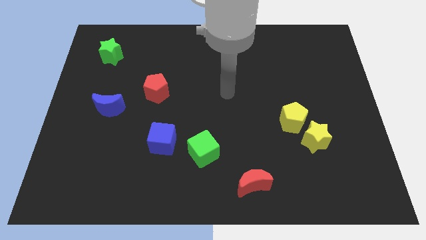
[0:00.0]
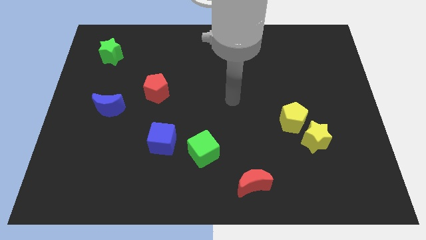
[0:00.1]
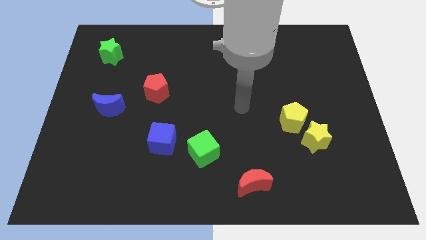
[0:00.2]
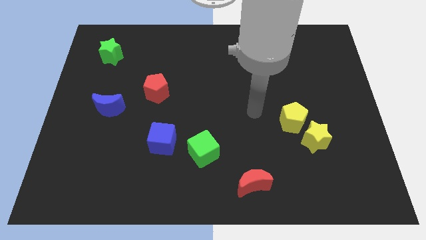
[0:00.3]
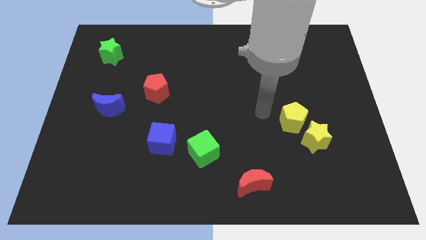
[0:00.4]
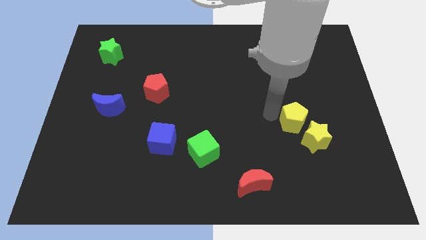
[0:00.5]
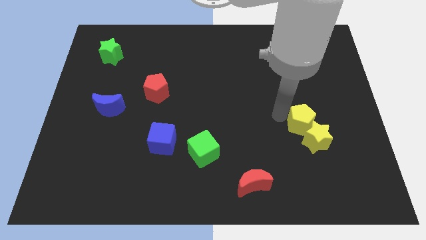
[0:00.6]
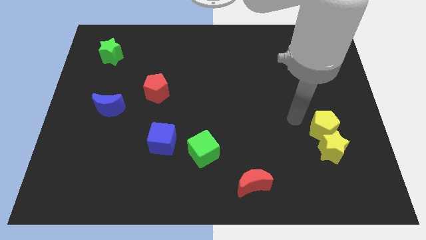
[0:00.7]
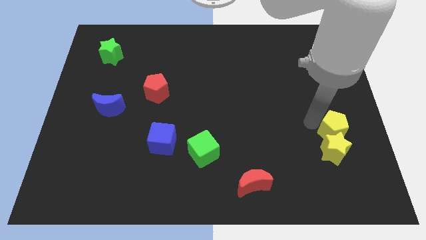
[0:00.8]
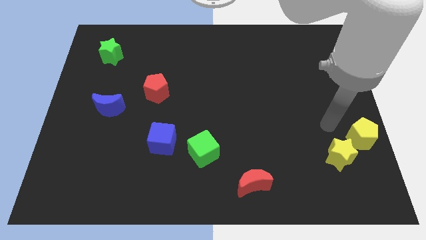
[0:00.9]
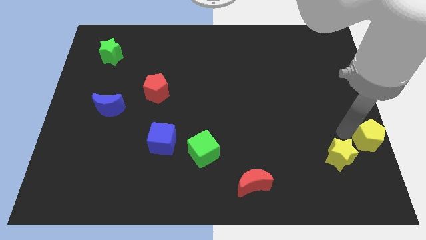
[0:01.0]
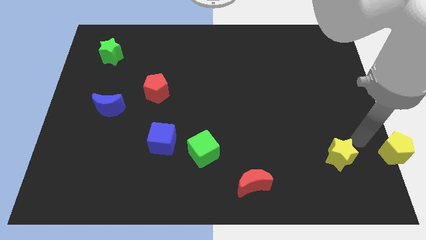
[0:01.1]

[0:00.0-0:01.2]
pull the yellow star apart from the yellow pentagon

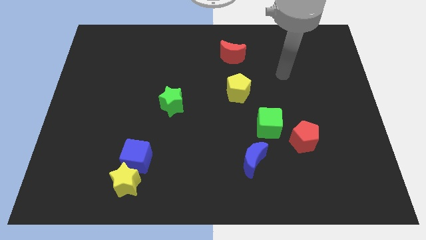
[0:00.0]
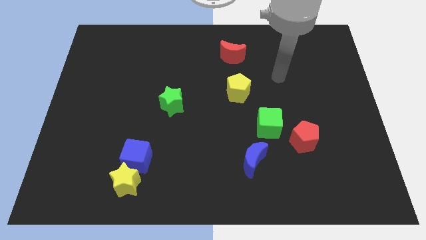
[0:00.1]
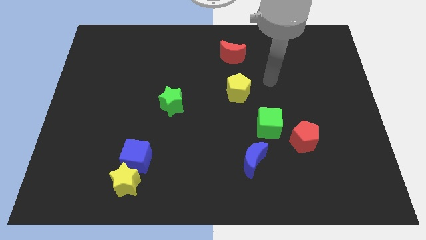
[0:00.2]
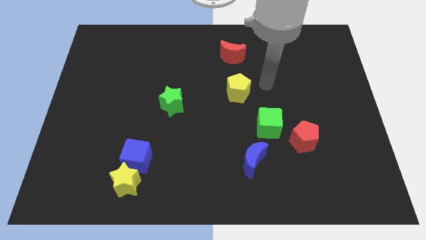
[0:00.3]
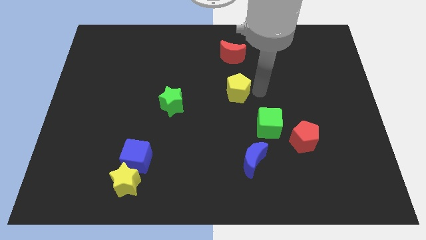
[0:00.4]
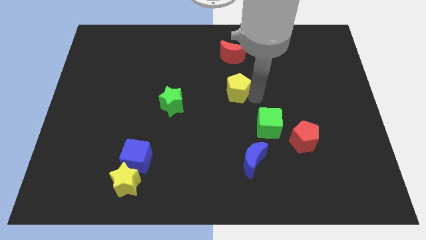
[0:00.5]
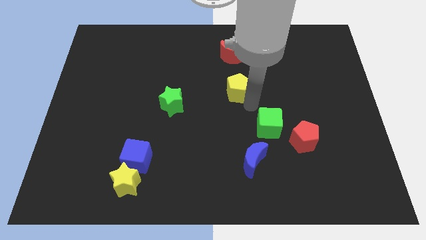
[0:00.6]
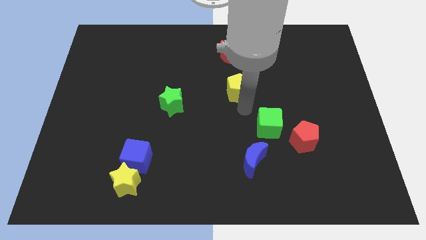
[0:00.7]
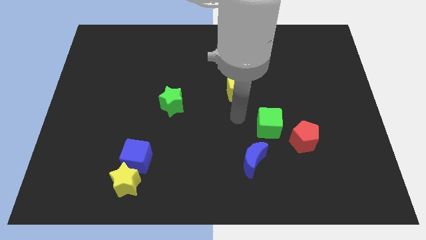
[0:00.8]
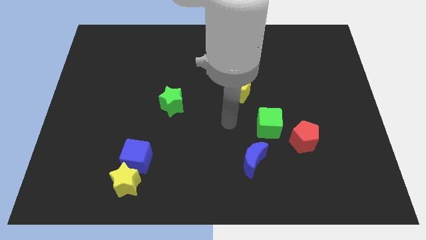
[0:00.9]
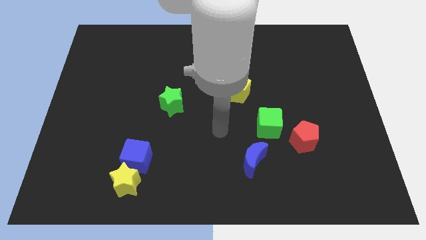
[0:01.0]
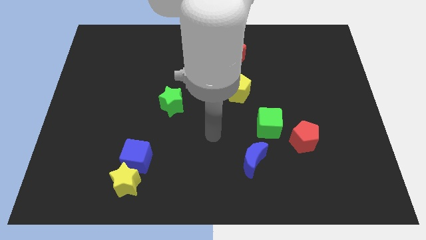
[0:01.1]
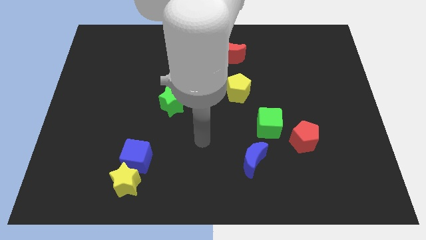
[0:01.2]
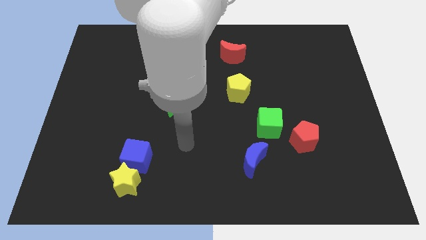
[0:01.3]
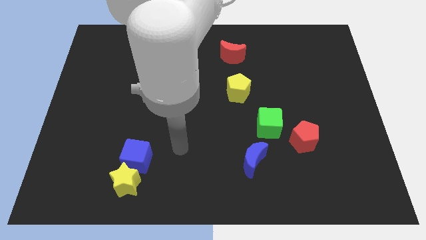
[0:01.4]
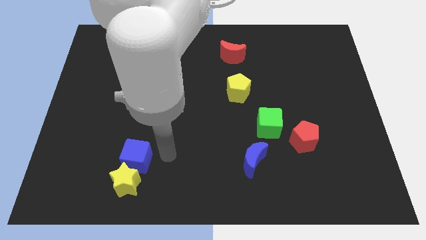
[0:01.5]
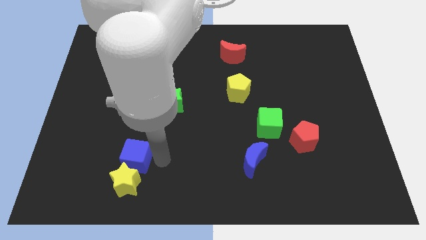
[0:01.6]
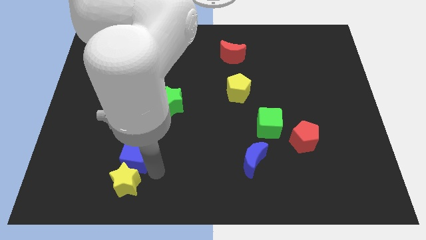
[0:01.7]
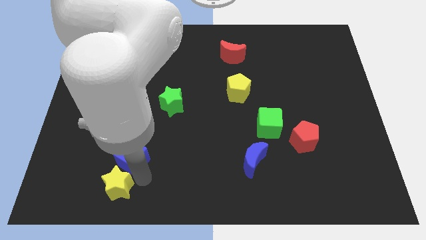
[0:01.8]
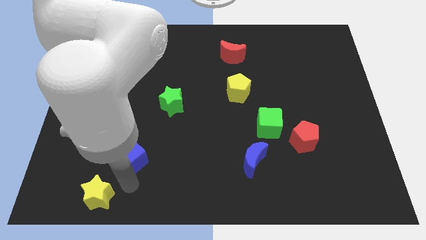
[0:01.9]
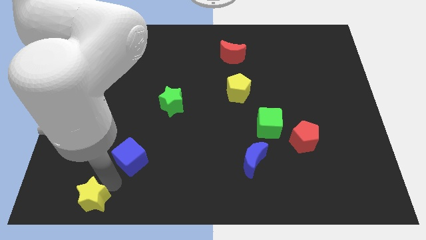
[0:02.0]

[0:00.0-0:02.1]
separate the blue cube from the yellow star

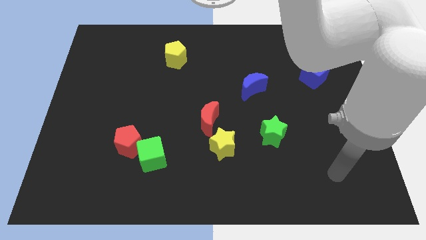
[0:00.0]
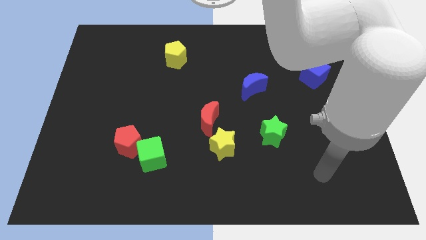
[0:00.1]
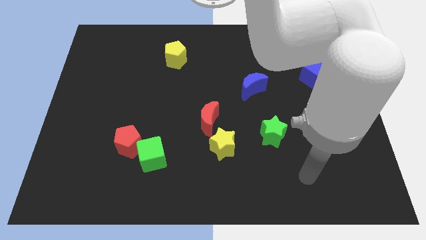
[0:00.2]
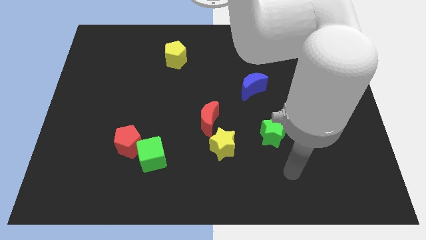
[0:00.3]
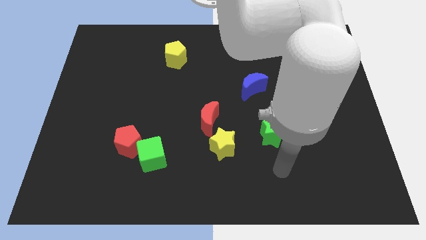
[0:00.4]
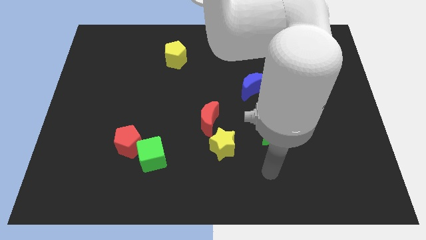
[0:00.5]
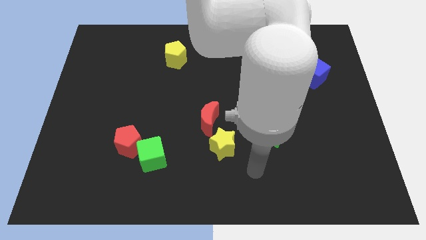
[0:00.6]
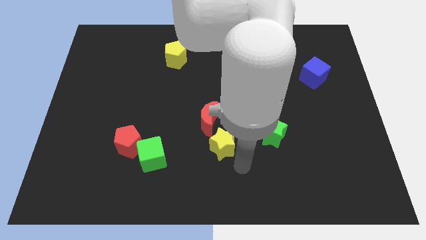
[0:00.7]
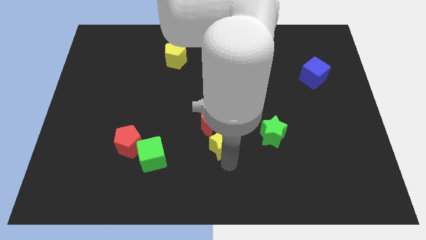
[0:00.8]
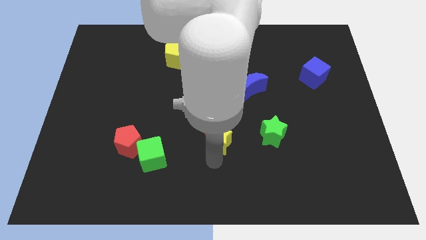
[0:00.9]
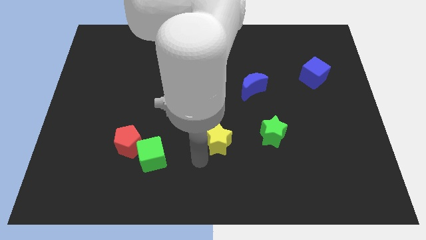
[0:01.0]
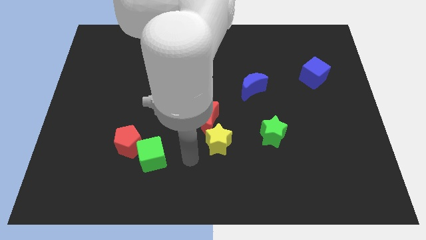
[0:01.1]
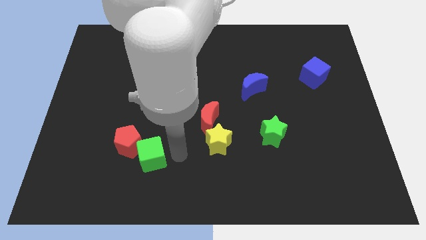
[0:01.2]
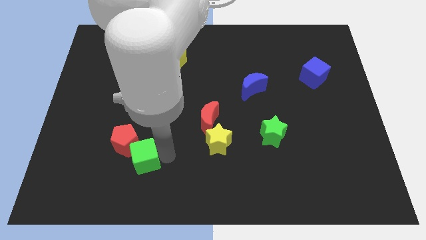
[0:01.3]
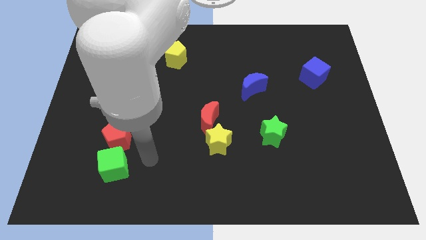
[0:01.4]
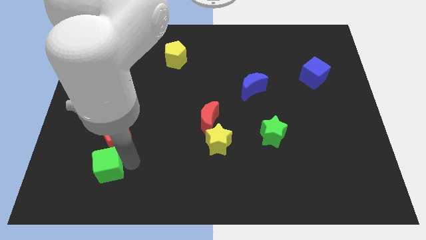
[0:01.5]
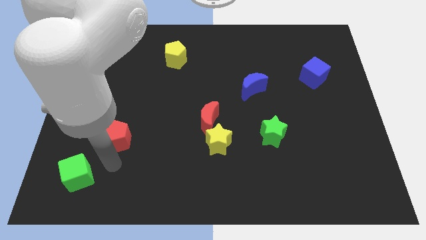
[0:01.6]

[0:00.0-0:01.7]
pull the red pentagon apart from the green cube

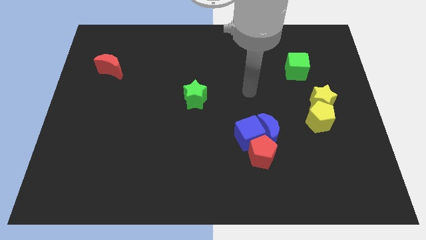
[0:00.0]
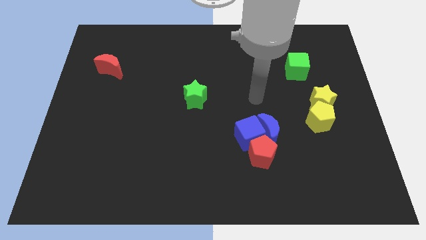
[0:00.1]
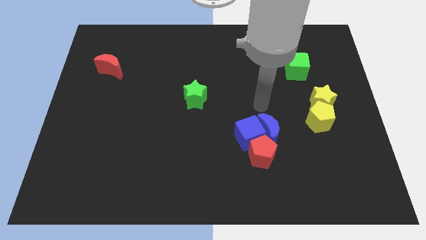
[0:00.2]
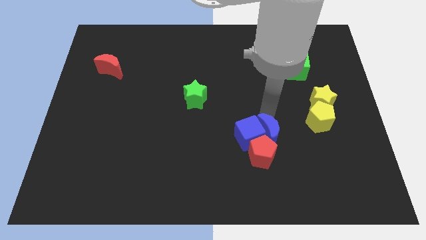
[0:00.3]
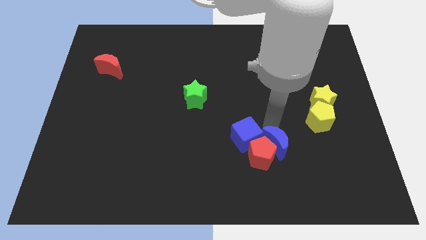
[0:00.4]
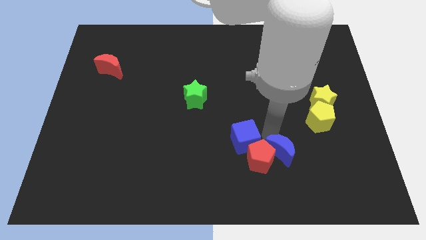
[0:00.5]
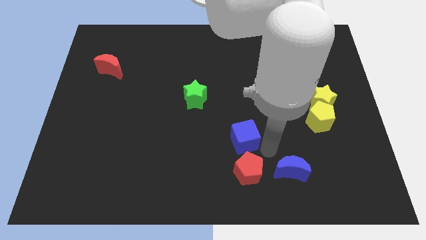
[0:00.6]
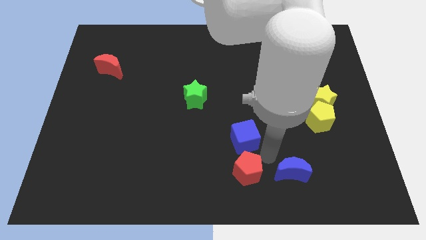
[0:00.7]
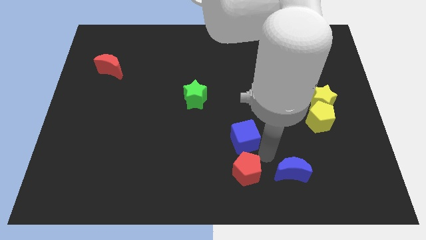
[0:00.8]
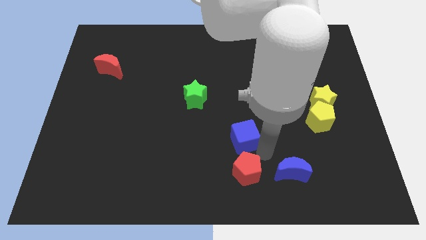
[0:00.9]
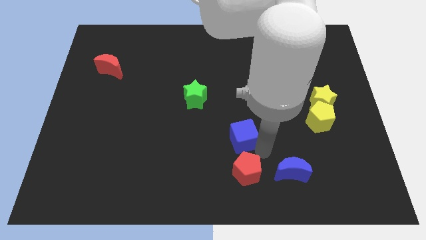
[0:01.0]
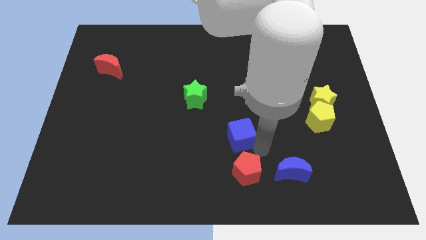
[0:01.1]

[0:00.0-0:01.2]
pull the blue cube apart from the blue moon and red pentagon

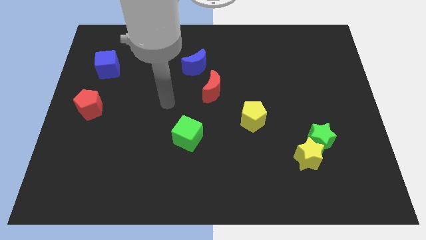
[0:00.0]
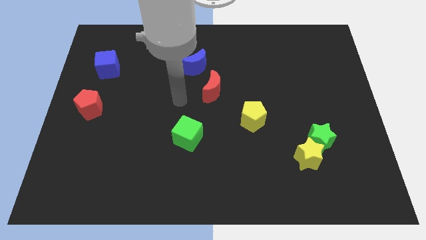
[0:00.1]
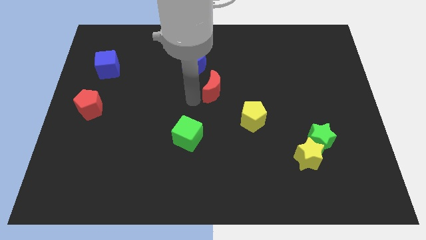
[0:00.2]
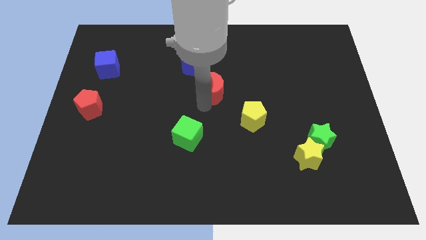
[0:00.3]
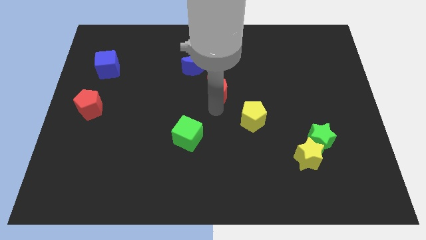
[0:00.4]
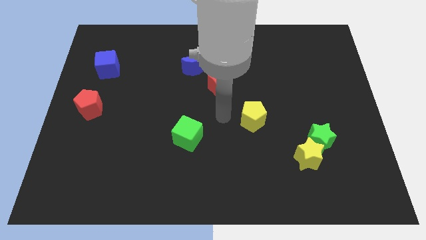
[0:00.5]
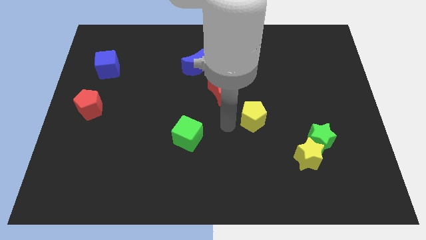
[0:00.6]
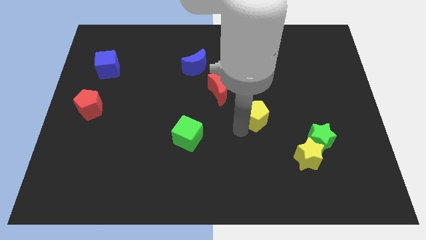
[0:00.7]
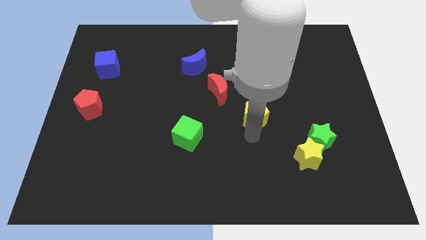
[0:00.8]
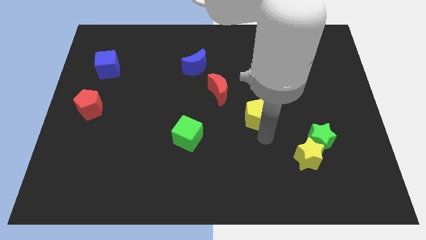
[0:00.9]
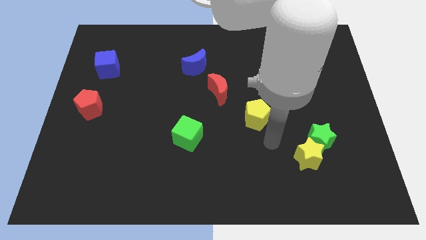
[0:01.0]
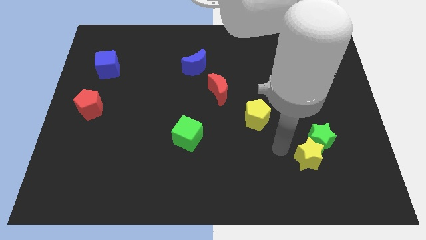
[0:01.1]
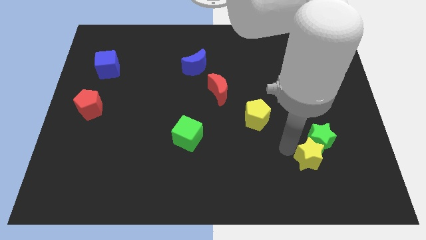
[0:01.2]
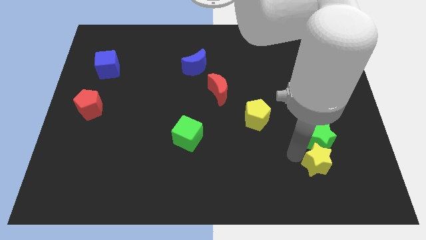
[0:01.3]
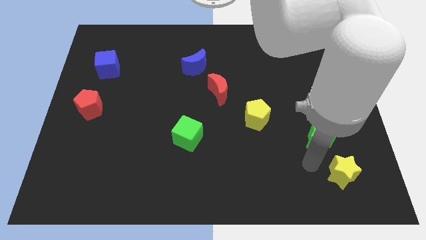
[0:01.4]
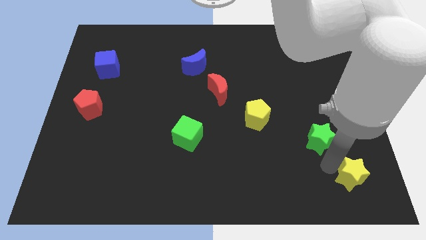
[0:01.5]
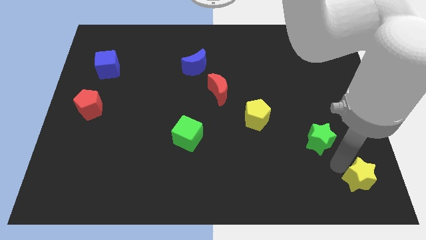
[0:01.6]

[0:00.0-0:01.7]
move the green star away from the yellow star

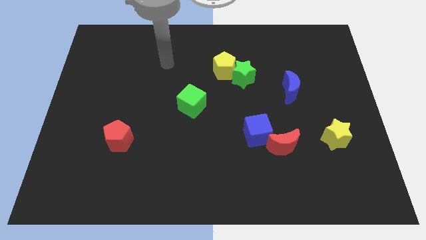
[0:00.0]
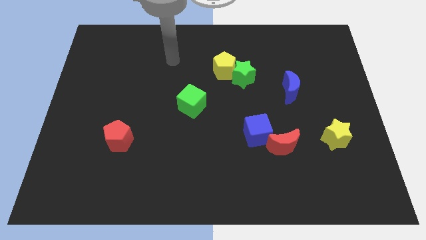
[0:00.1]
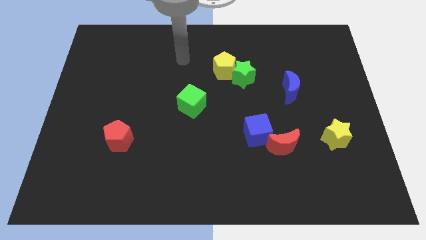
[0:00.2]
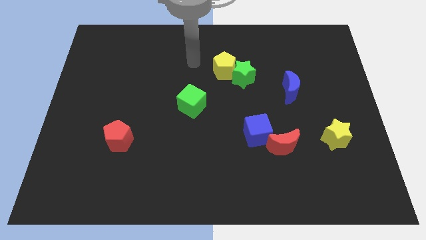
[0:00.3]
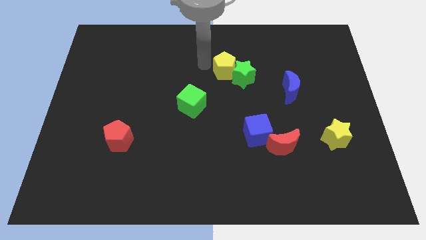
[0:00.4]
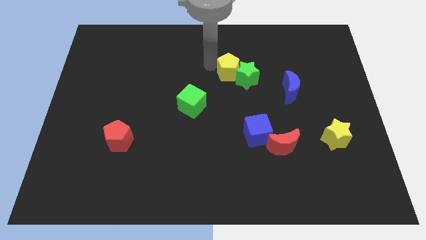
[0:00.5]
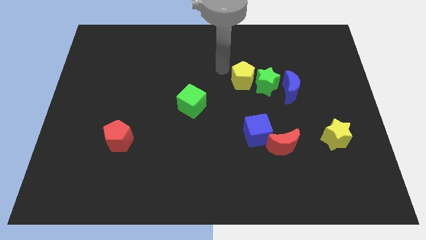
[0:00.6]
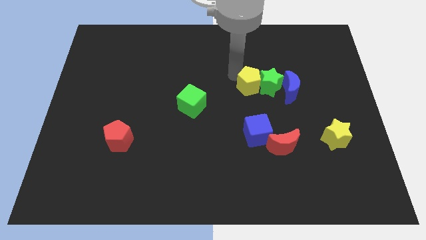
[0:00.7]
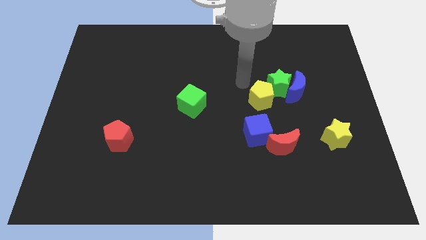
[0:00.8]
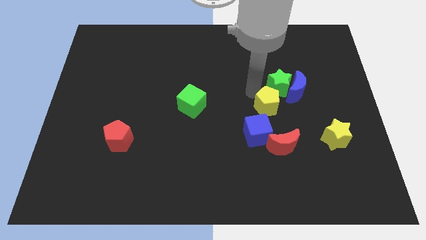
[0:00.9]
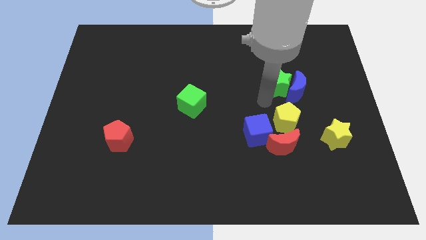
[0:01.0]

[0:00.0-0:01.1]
separate the green star from the yellow pentagon

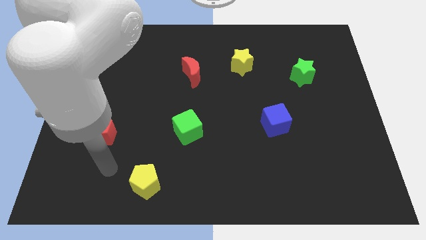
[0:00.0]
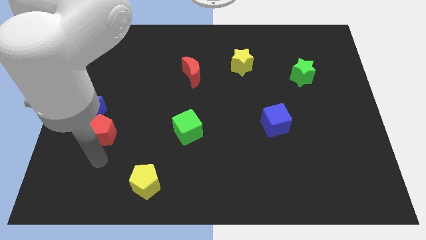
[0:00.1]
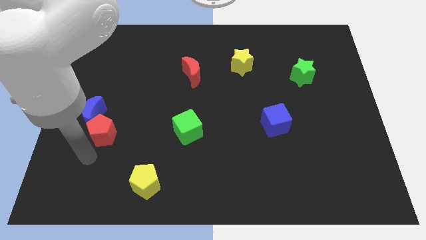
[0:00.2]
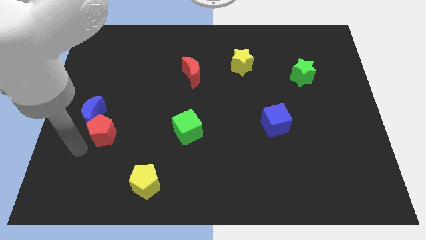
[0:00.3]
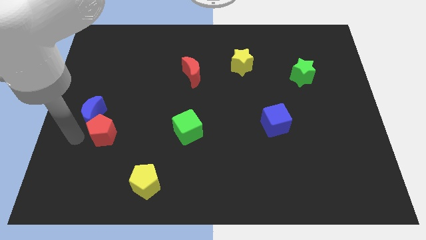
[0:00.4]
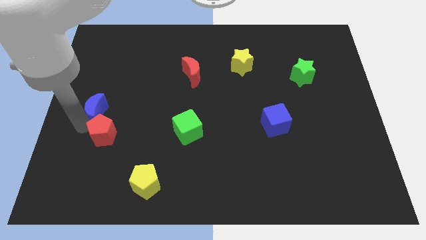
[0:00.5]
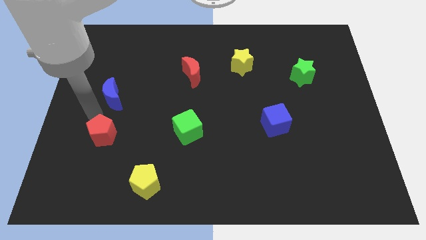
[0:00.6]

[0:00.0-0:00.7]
move the red pentagon away from the blue moon
